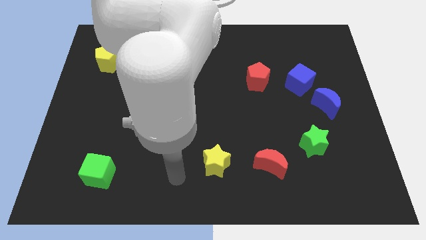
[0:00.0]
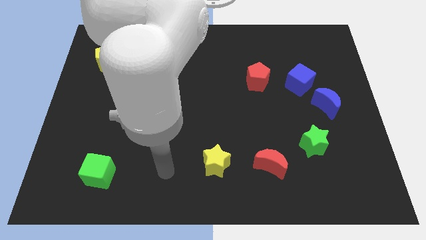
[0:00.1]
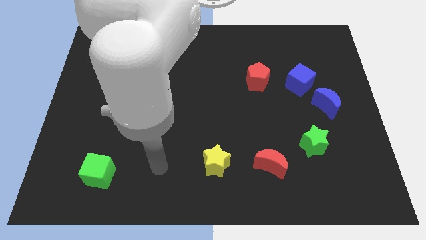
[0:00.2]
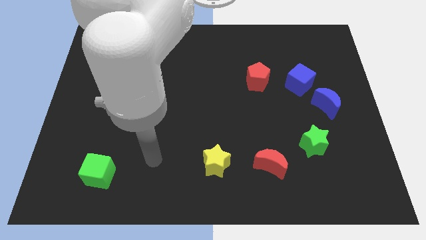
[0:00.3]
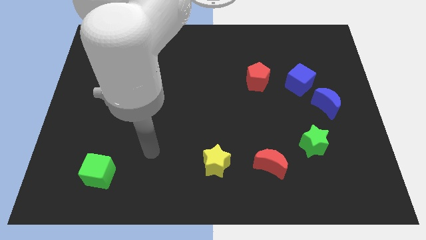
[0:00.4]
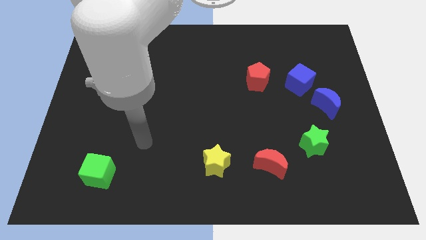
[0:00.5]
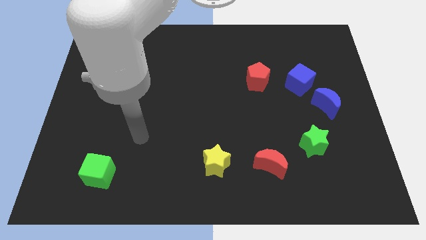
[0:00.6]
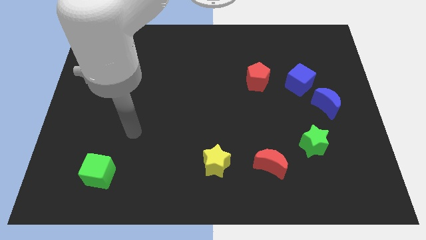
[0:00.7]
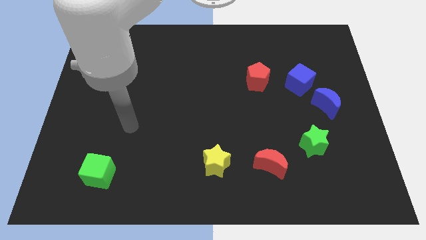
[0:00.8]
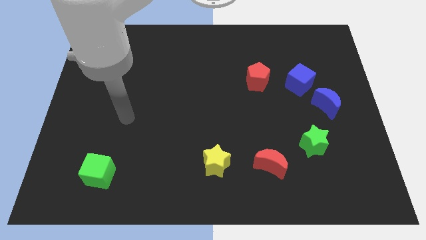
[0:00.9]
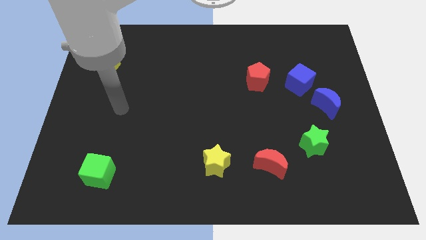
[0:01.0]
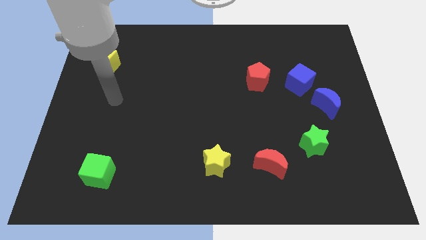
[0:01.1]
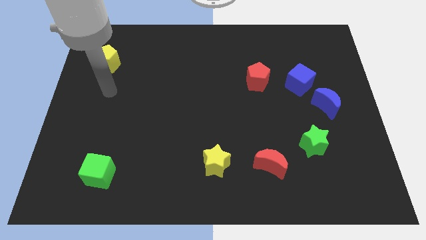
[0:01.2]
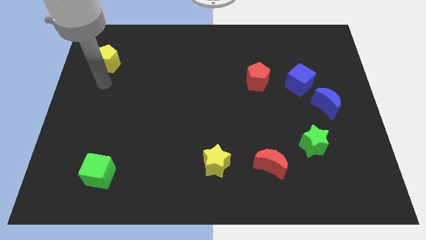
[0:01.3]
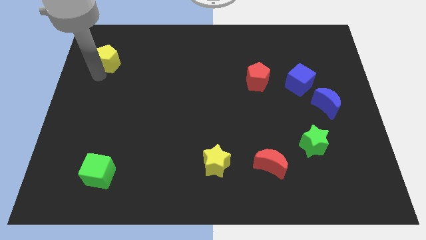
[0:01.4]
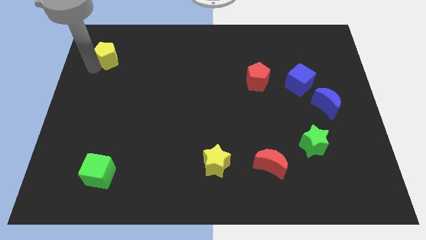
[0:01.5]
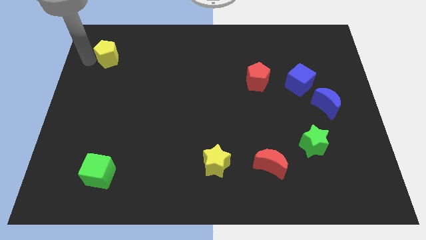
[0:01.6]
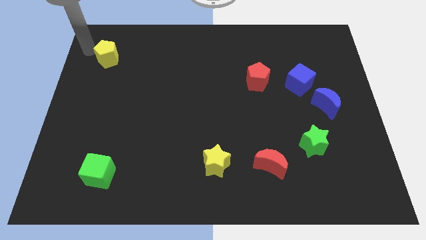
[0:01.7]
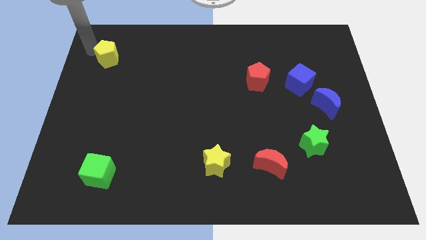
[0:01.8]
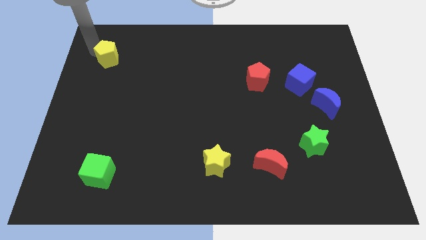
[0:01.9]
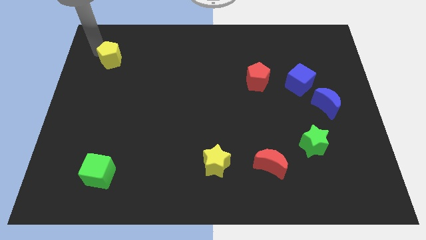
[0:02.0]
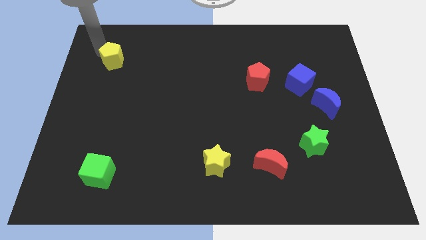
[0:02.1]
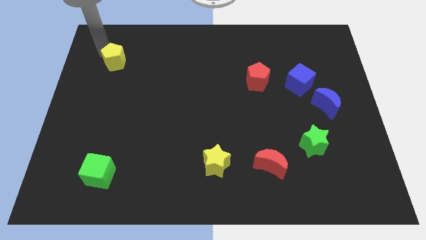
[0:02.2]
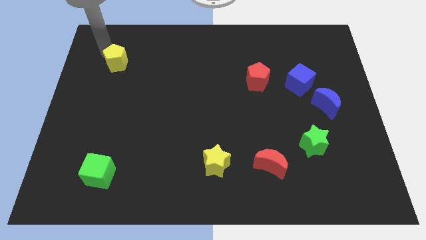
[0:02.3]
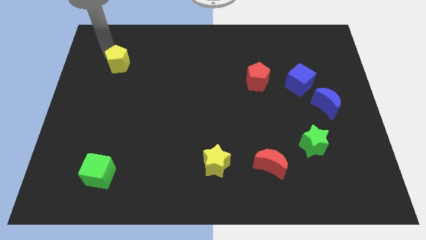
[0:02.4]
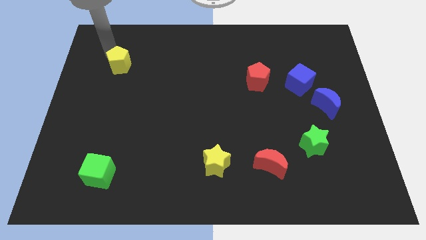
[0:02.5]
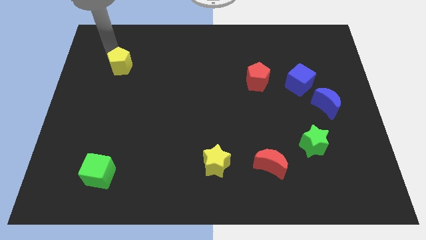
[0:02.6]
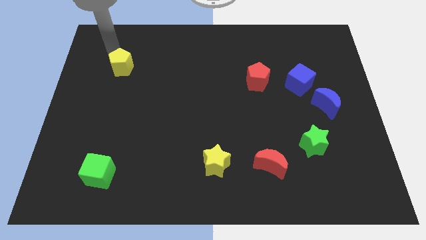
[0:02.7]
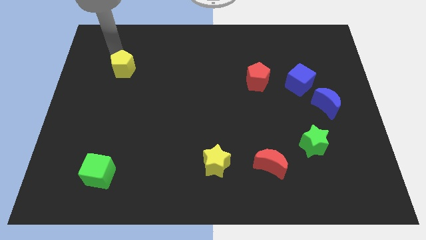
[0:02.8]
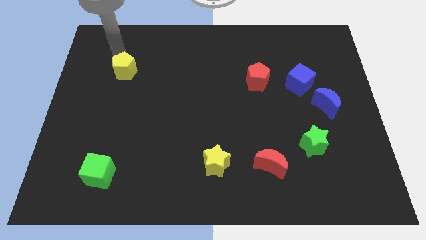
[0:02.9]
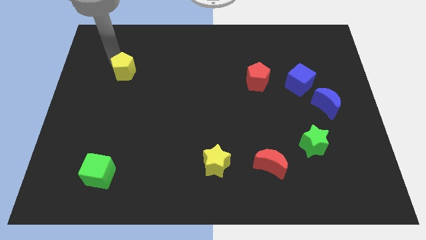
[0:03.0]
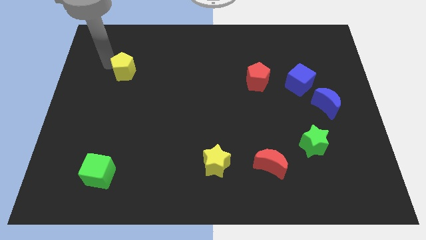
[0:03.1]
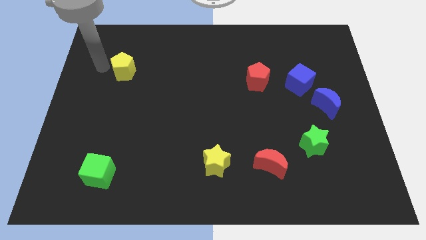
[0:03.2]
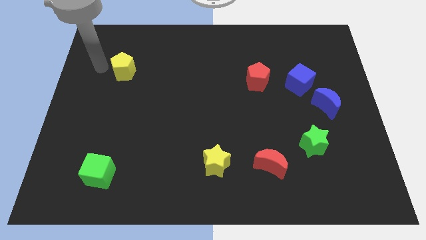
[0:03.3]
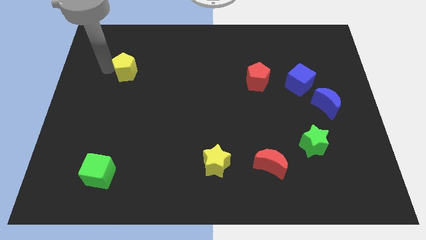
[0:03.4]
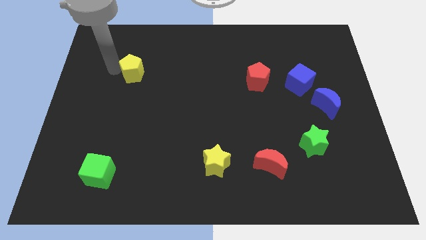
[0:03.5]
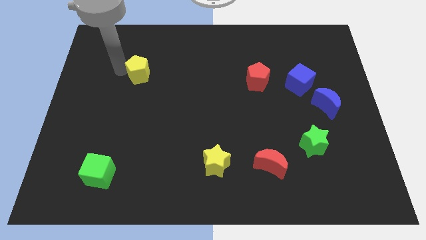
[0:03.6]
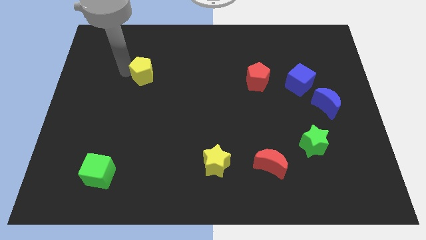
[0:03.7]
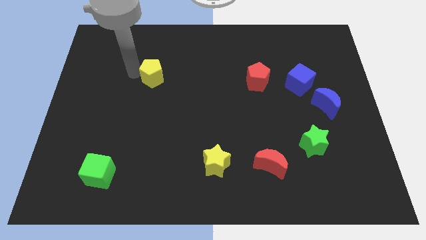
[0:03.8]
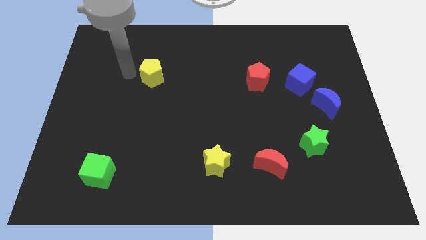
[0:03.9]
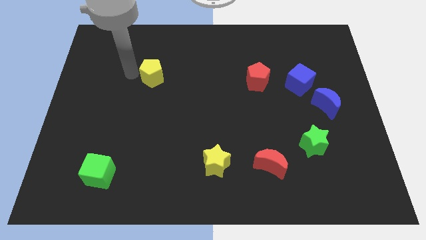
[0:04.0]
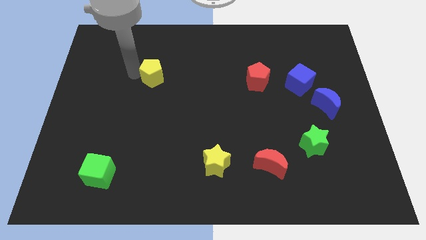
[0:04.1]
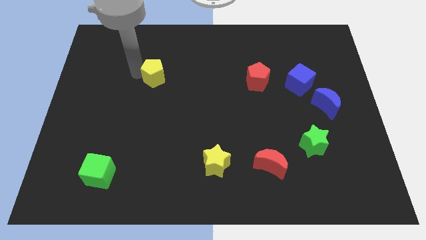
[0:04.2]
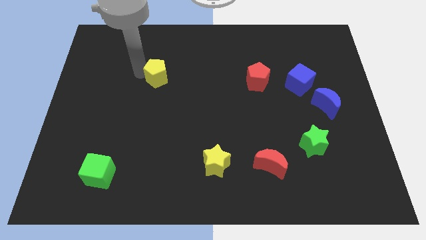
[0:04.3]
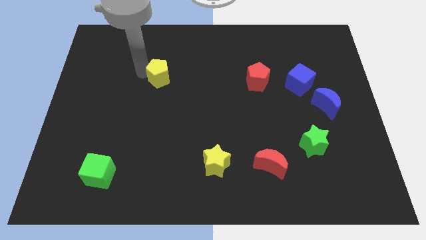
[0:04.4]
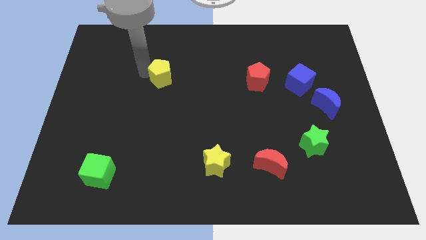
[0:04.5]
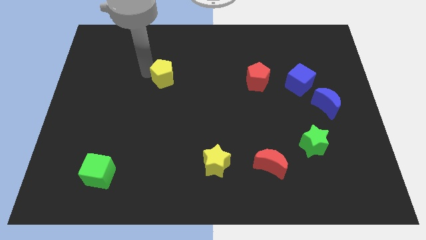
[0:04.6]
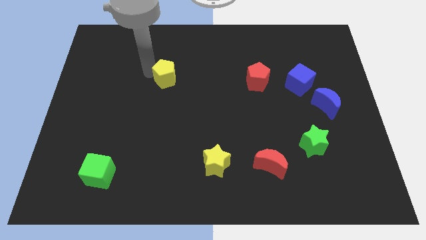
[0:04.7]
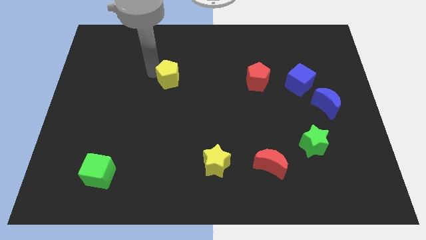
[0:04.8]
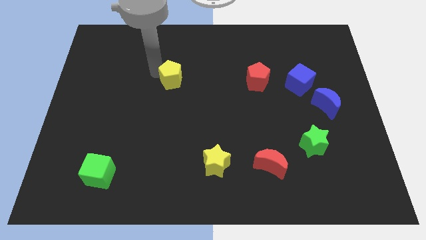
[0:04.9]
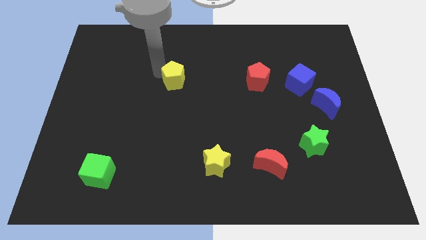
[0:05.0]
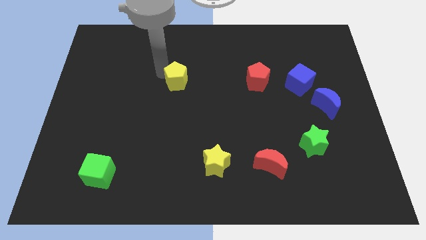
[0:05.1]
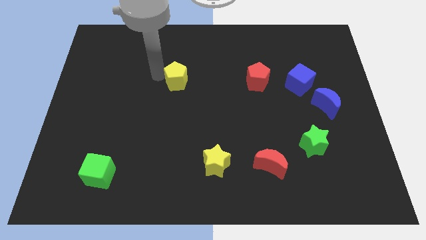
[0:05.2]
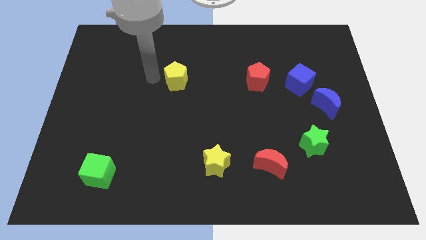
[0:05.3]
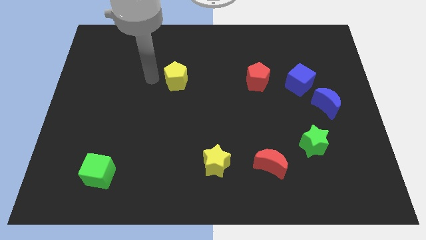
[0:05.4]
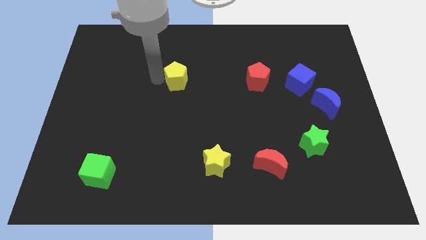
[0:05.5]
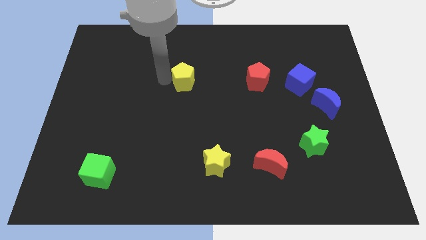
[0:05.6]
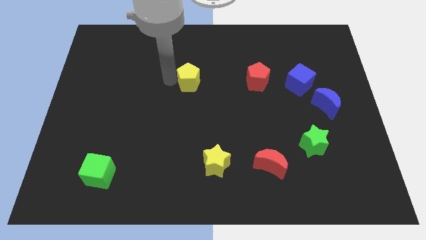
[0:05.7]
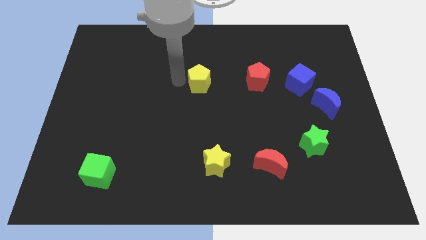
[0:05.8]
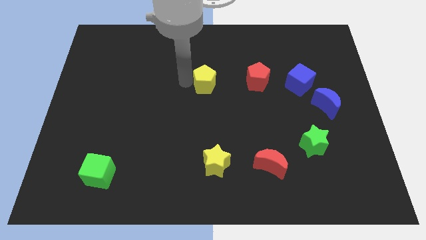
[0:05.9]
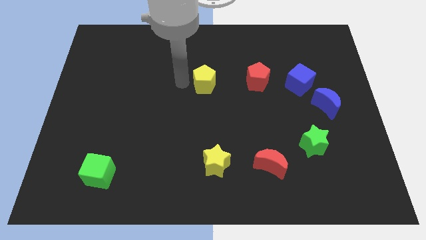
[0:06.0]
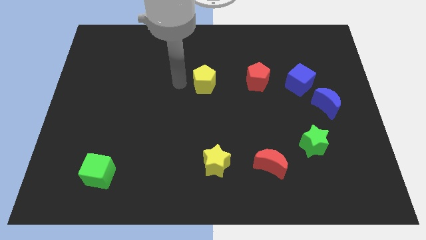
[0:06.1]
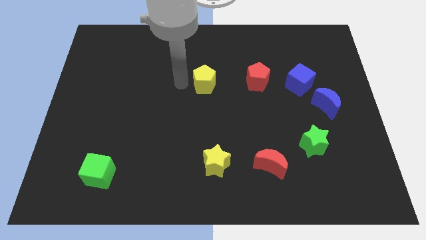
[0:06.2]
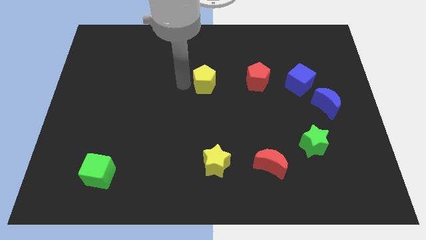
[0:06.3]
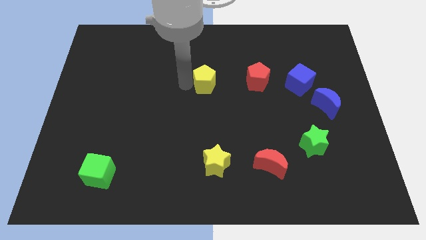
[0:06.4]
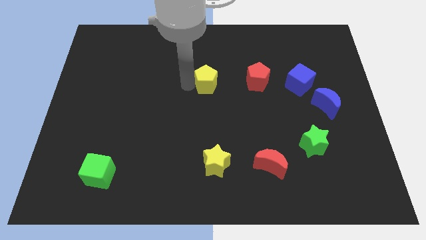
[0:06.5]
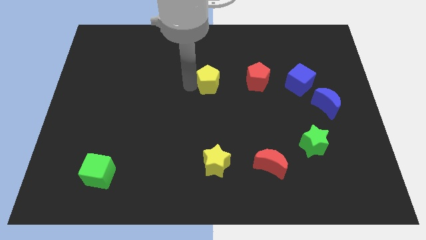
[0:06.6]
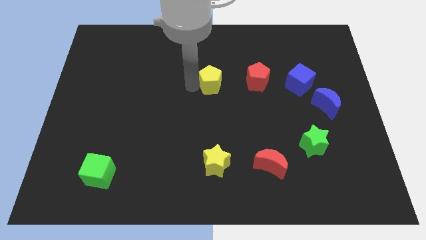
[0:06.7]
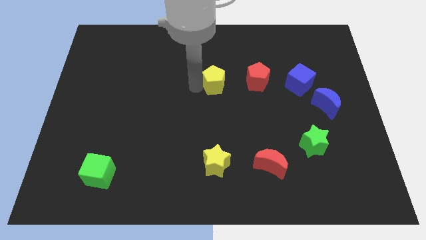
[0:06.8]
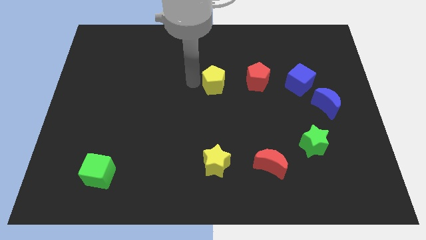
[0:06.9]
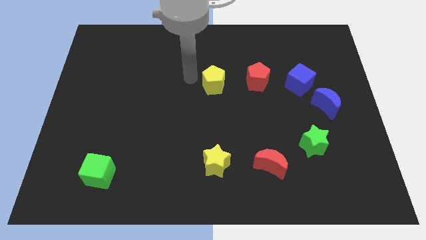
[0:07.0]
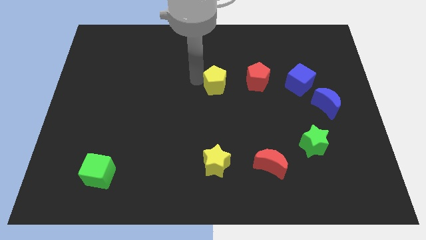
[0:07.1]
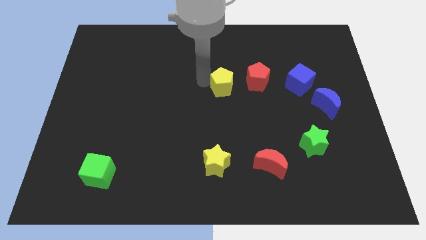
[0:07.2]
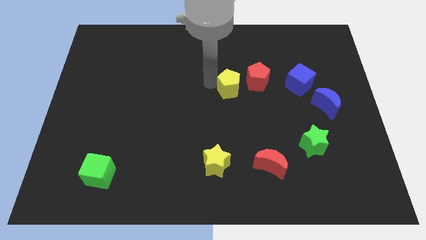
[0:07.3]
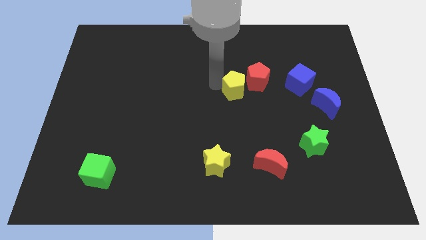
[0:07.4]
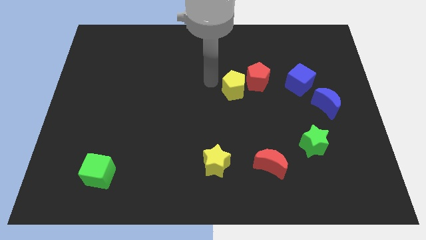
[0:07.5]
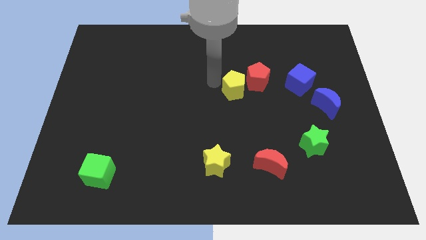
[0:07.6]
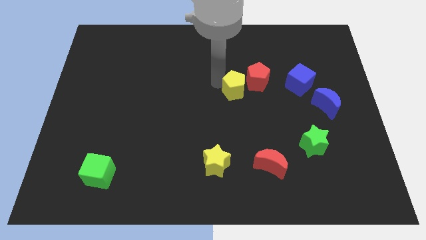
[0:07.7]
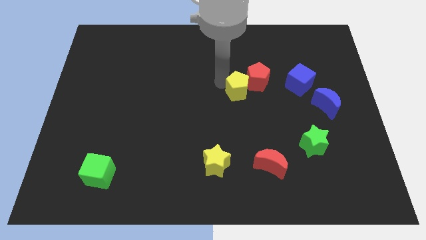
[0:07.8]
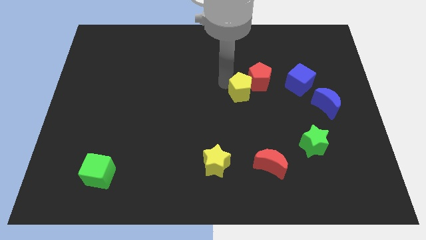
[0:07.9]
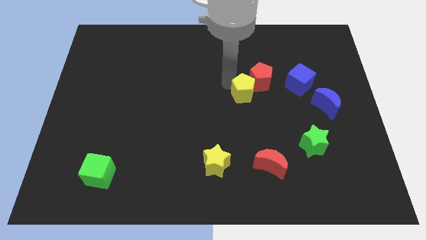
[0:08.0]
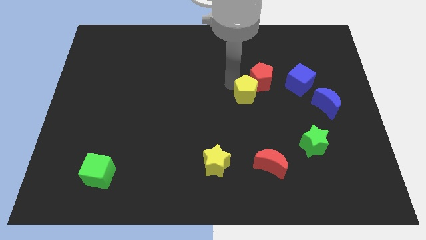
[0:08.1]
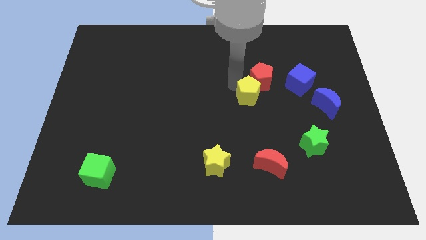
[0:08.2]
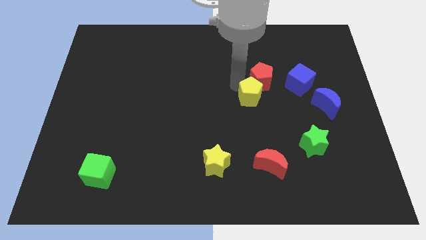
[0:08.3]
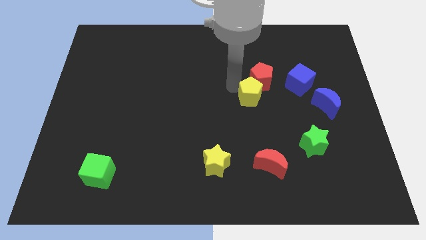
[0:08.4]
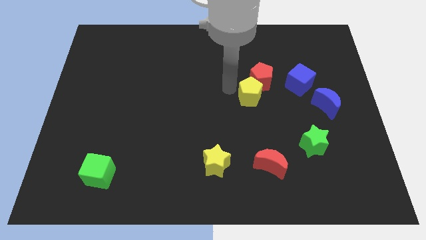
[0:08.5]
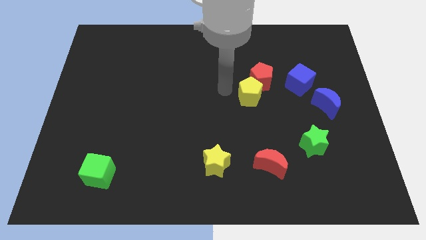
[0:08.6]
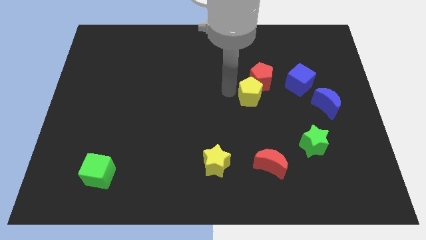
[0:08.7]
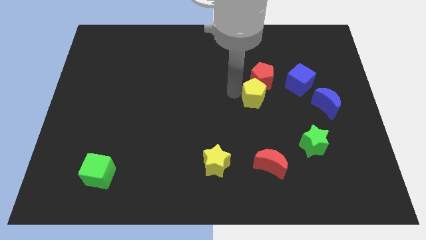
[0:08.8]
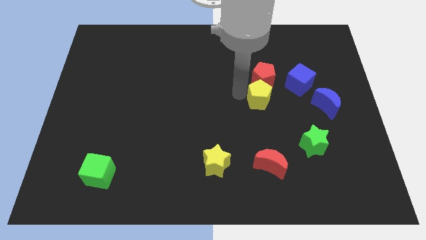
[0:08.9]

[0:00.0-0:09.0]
put the yellow pentagon left of the blue moon
